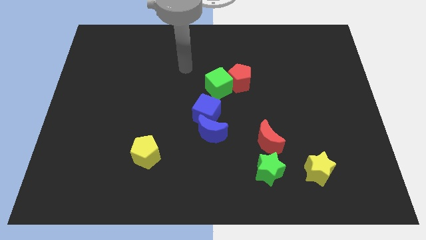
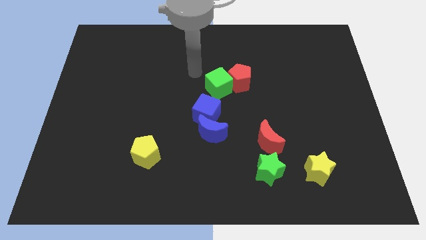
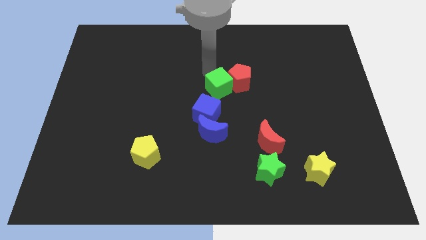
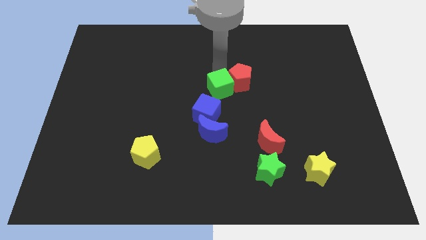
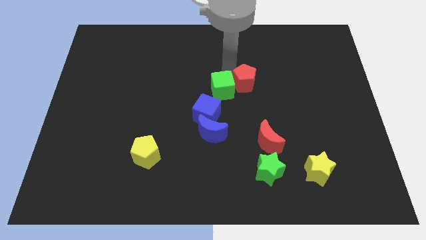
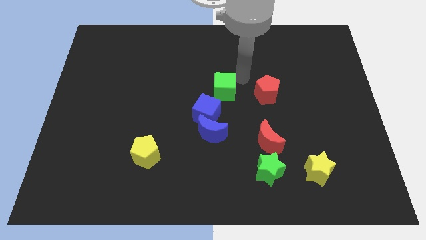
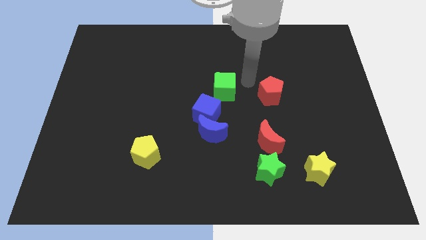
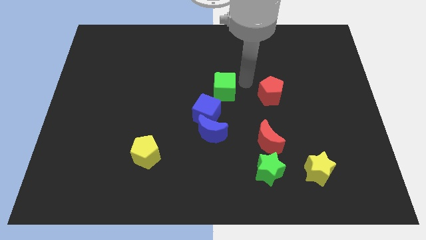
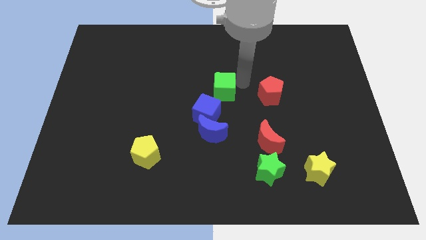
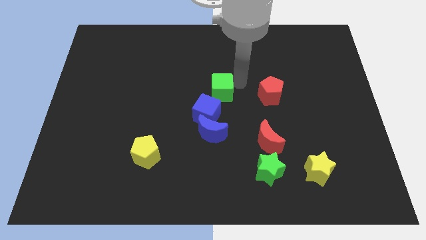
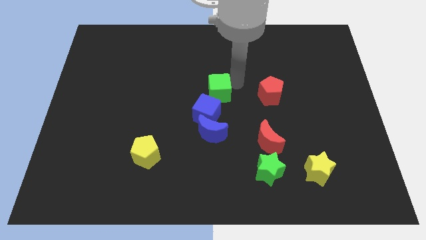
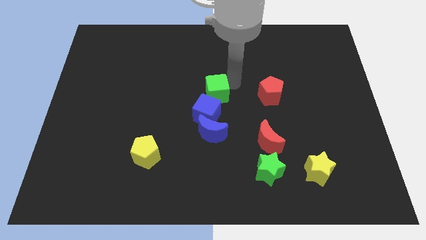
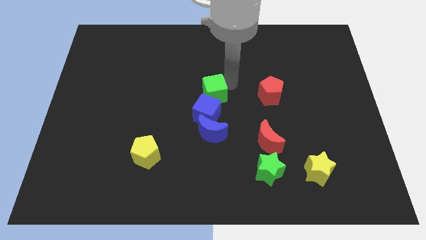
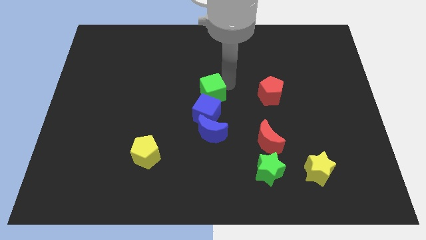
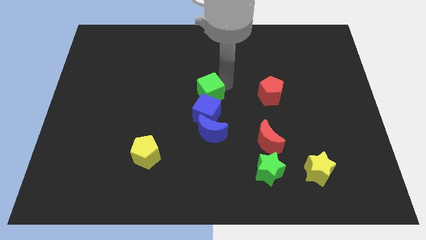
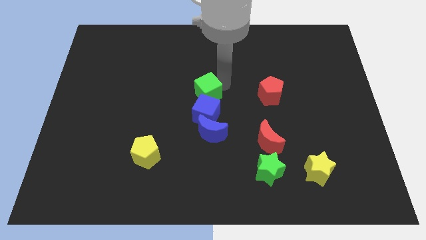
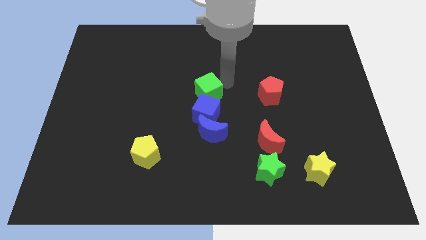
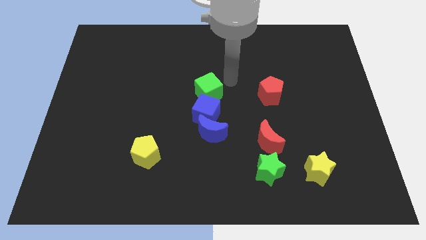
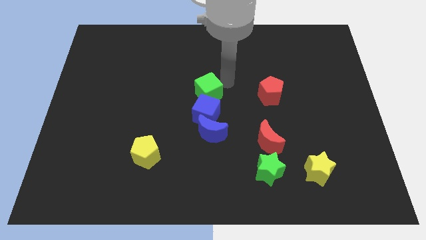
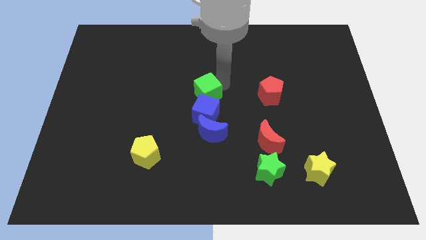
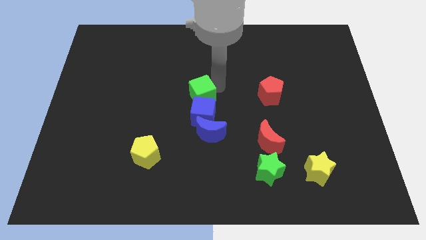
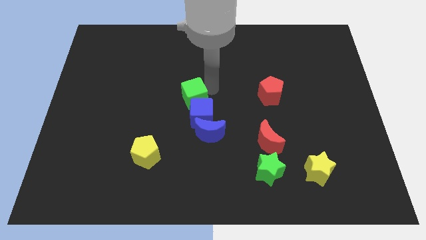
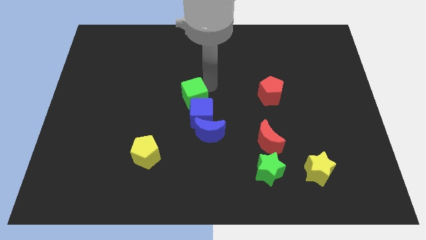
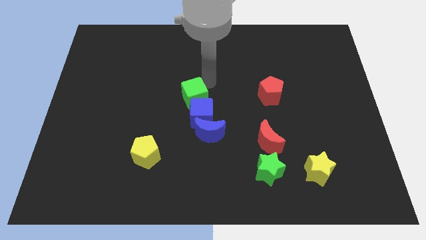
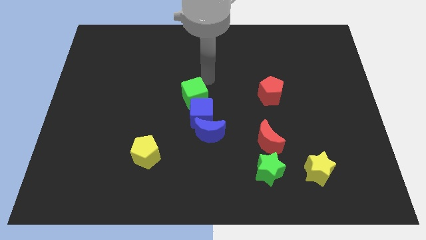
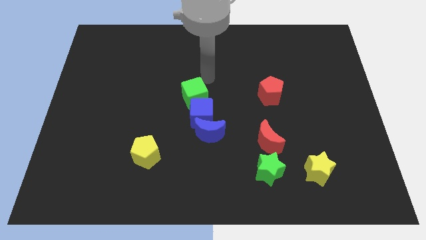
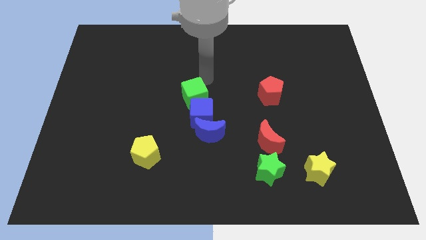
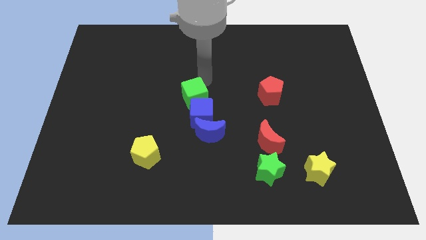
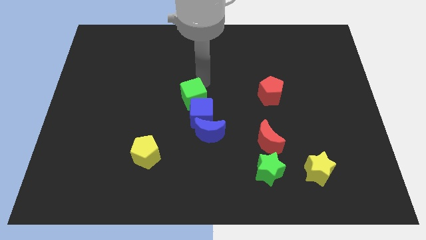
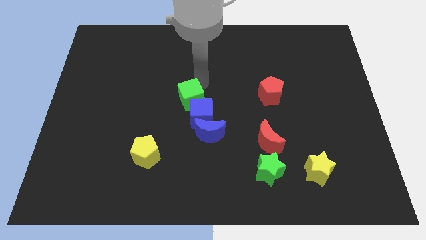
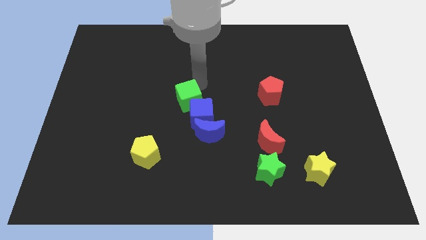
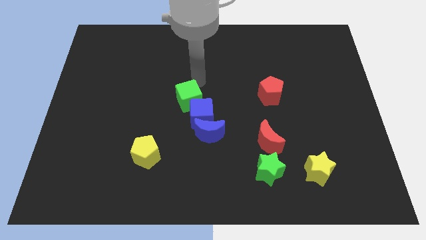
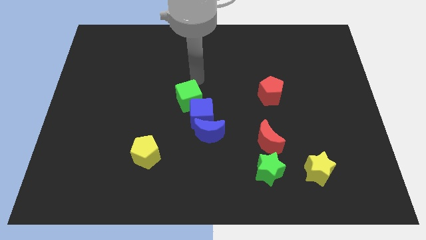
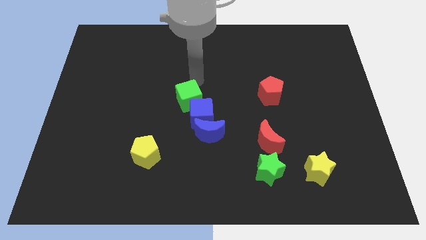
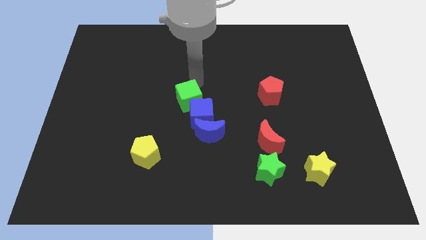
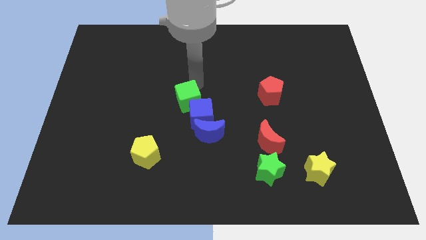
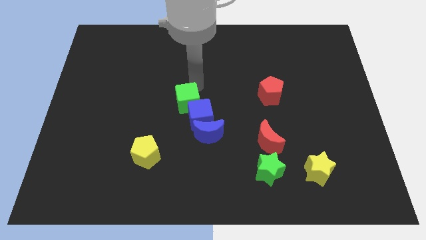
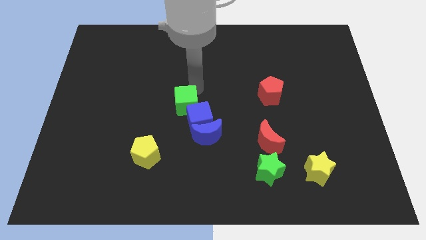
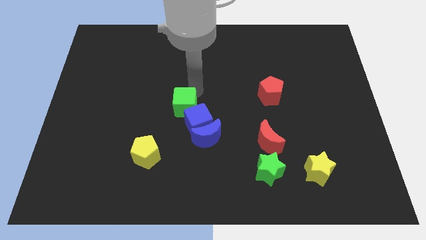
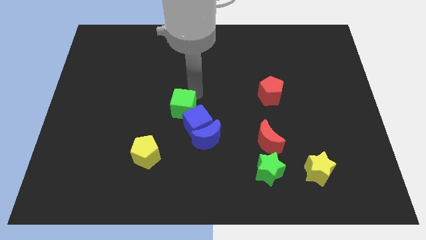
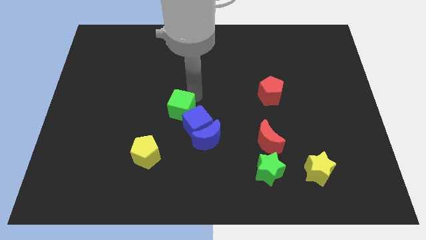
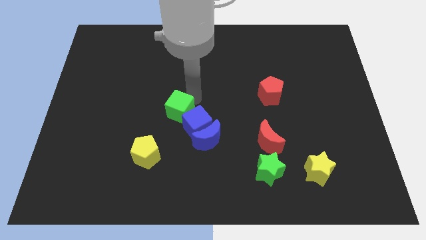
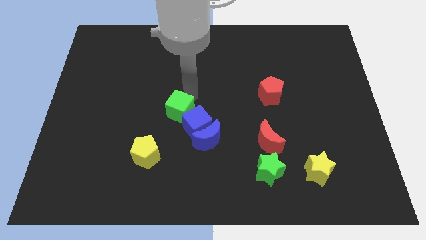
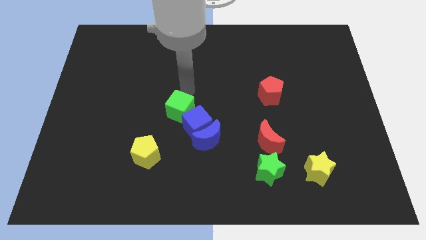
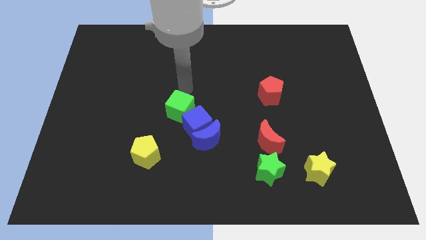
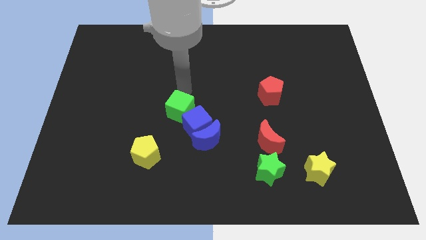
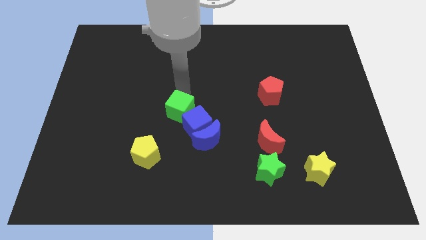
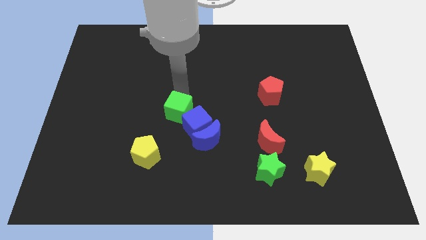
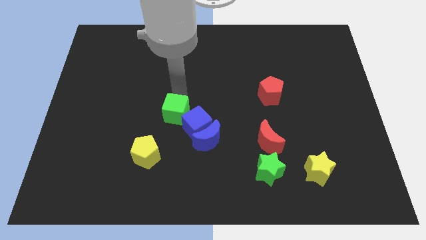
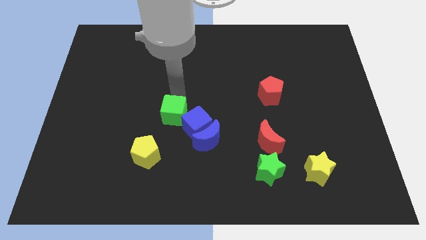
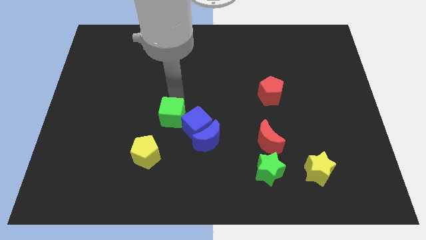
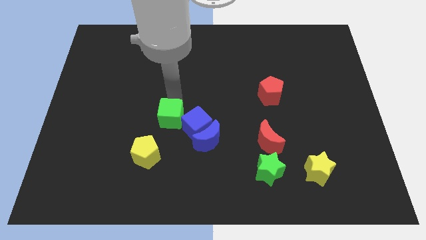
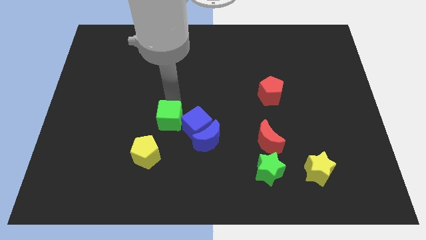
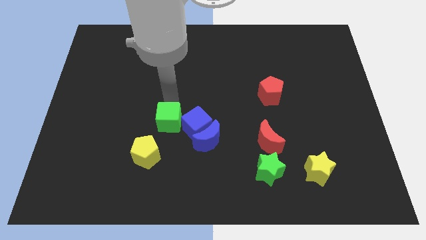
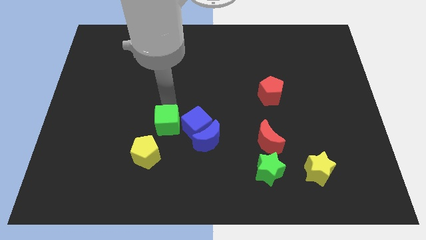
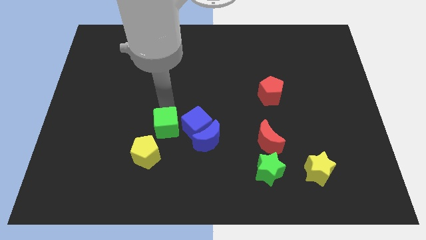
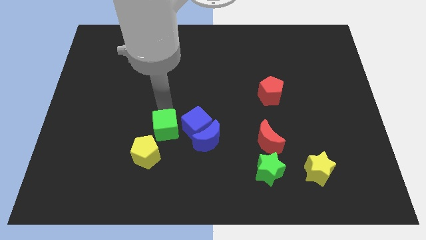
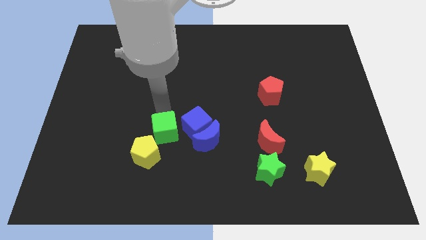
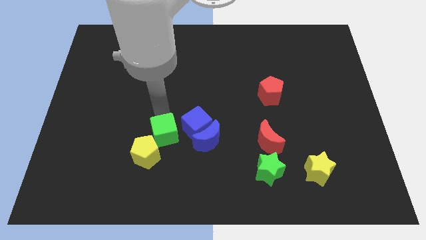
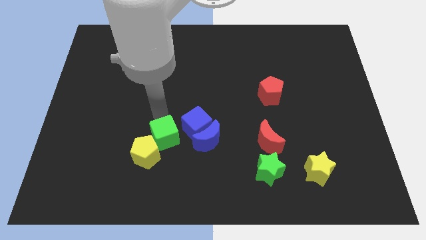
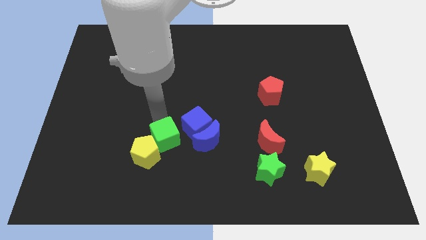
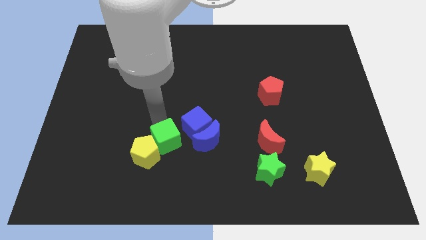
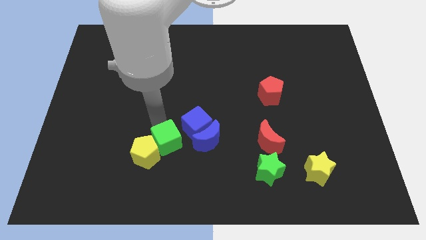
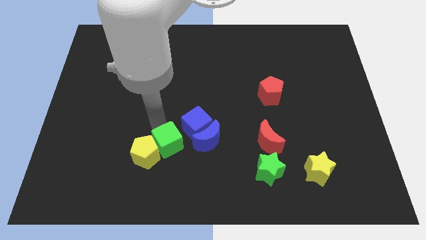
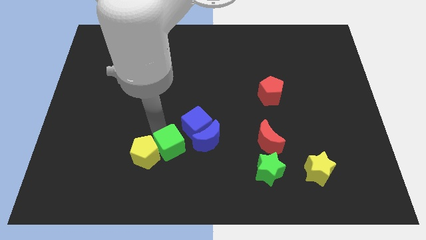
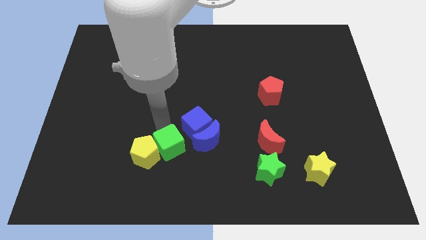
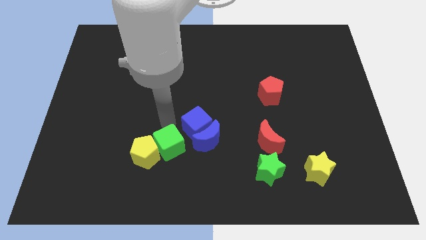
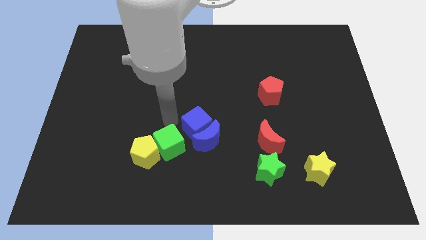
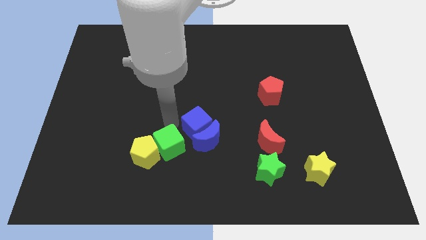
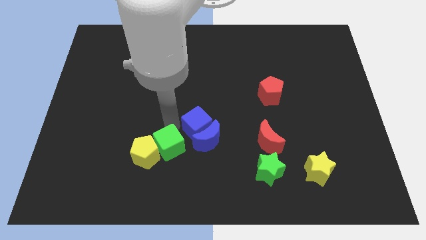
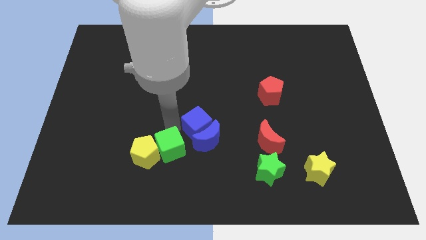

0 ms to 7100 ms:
push the green cube diagonally down and to the right of the yellow pentagon
